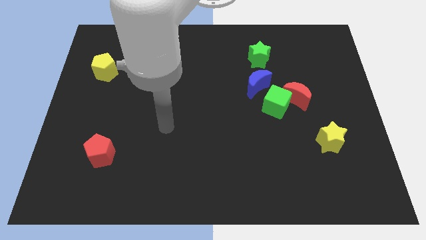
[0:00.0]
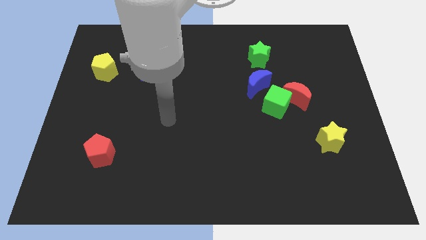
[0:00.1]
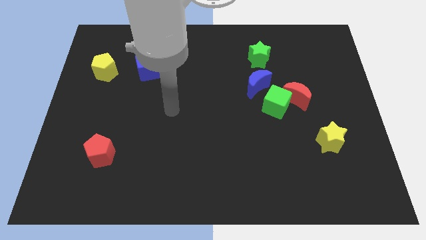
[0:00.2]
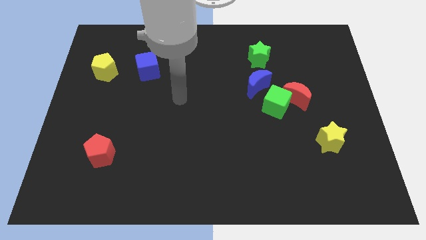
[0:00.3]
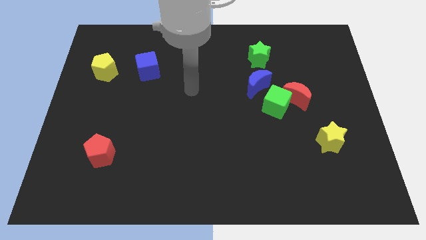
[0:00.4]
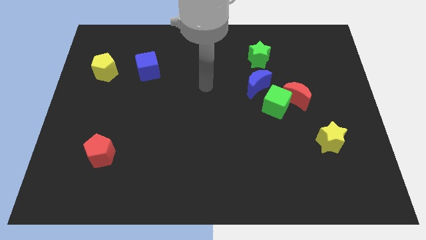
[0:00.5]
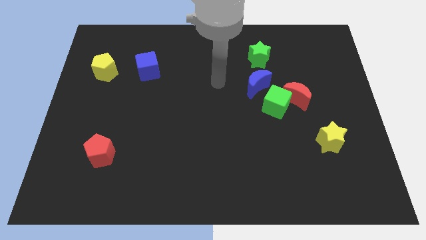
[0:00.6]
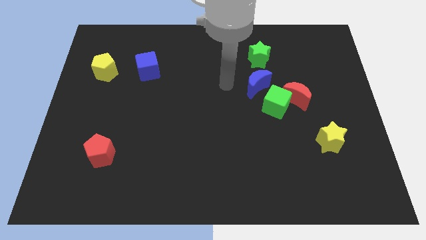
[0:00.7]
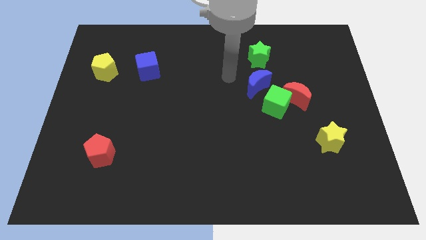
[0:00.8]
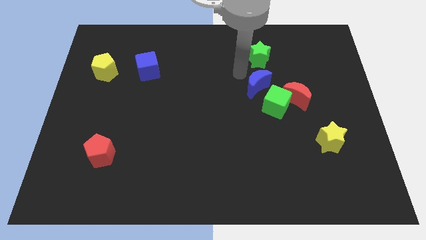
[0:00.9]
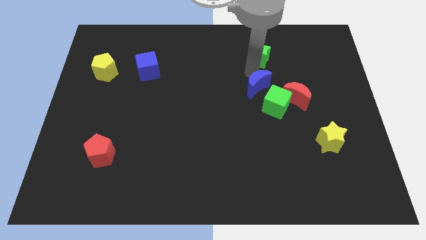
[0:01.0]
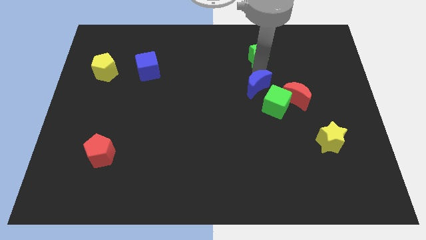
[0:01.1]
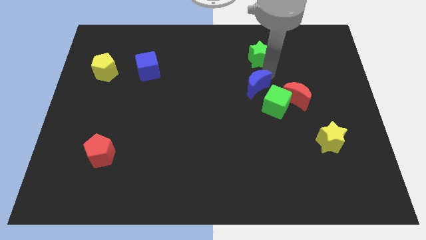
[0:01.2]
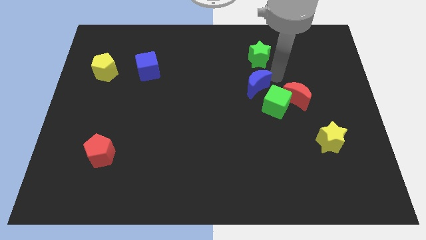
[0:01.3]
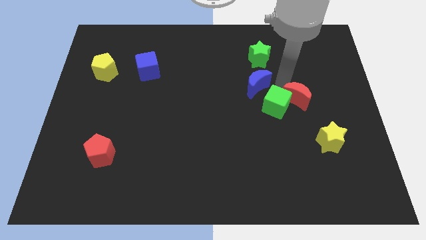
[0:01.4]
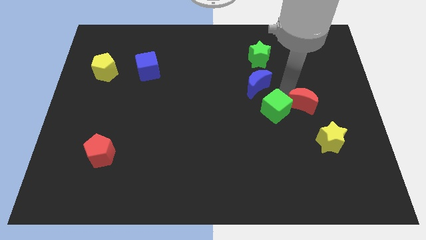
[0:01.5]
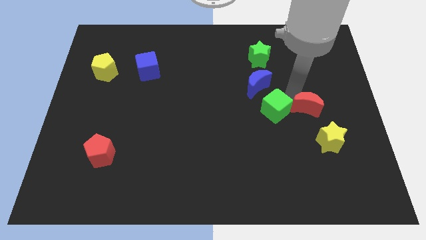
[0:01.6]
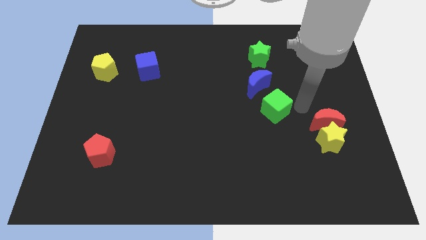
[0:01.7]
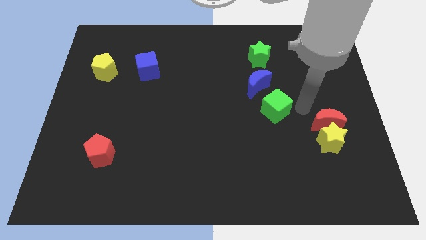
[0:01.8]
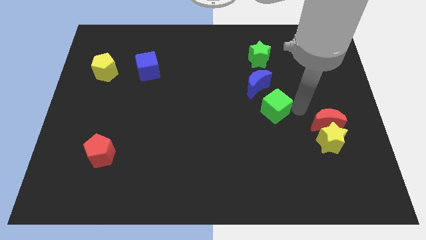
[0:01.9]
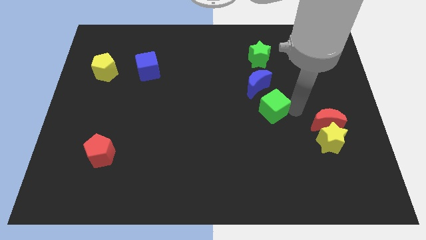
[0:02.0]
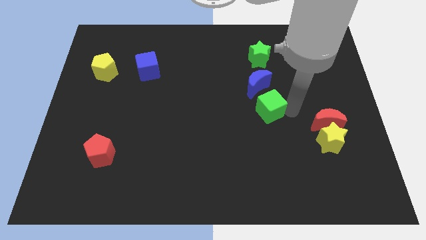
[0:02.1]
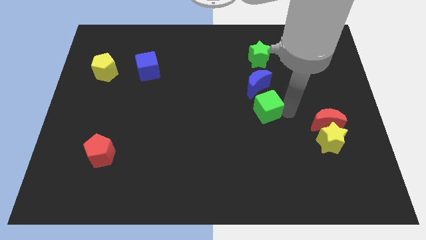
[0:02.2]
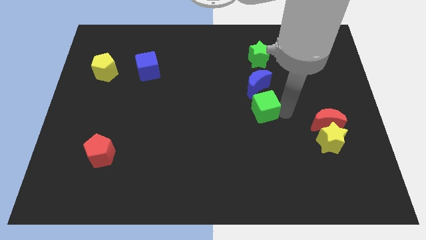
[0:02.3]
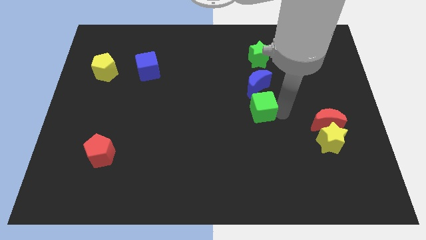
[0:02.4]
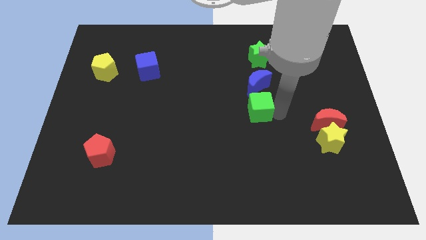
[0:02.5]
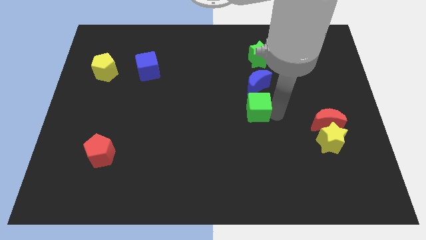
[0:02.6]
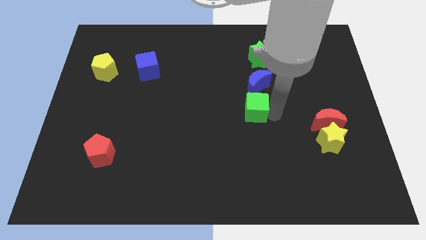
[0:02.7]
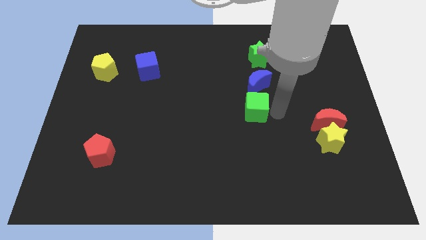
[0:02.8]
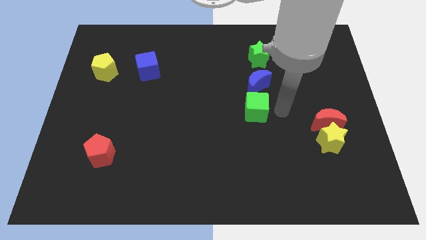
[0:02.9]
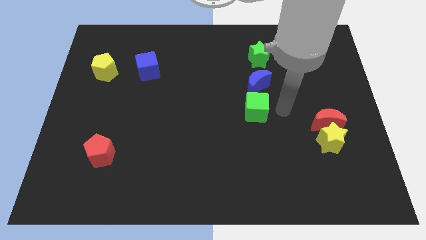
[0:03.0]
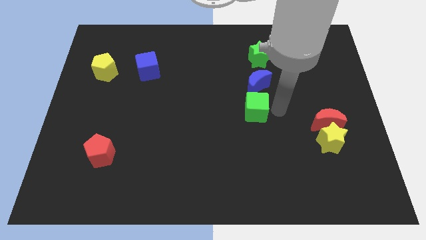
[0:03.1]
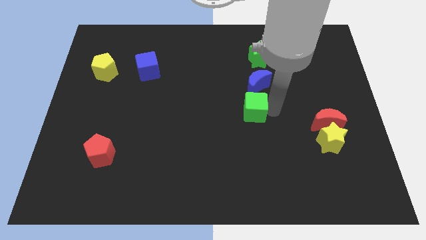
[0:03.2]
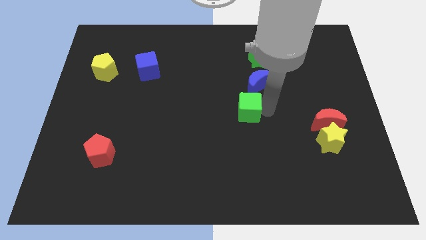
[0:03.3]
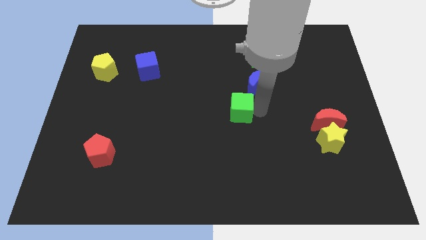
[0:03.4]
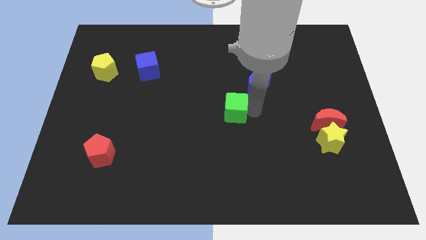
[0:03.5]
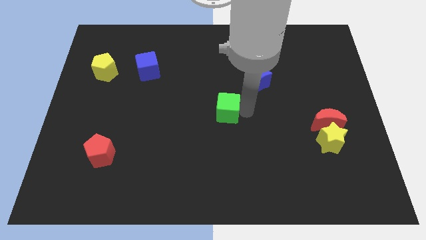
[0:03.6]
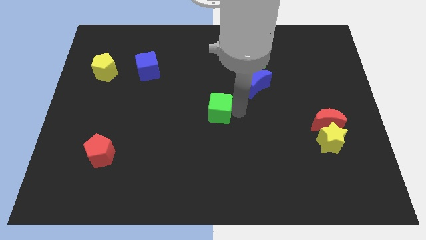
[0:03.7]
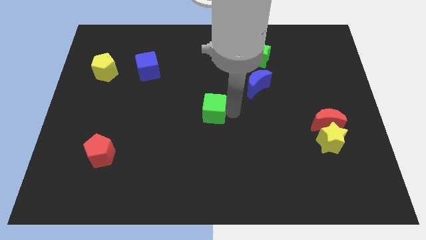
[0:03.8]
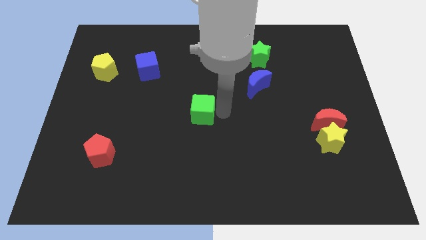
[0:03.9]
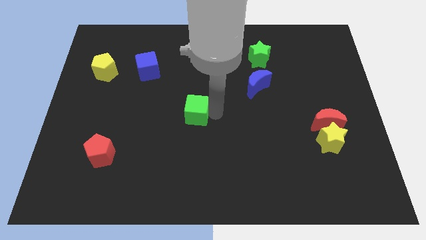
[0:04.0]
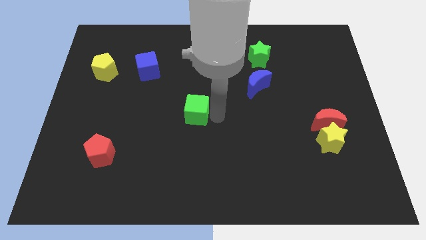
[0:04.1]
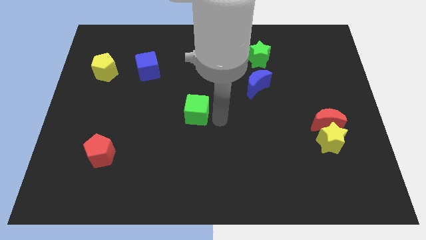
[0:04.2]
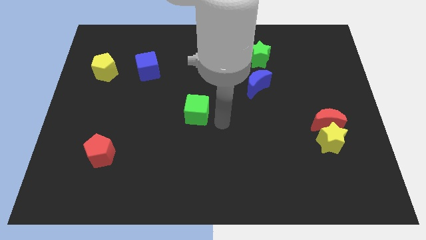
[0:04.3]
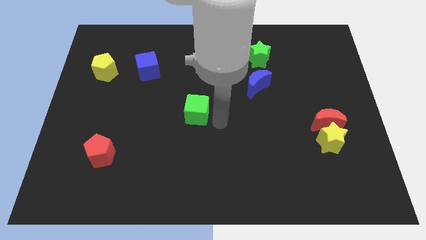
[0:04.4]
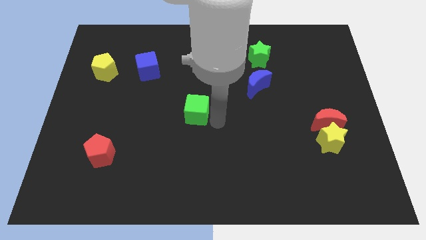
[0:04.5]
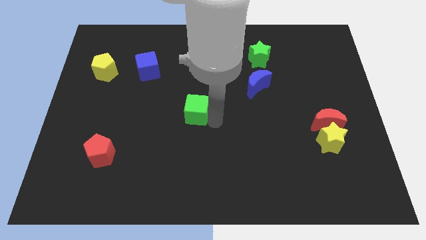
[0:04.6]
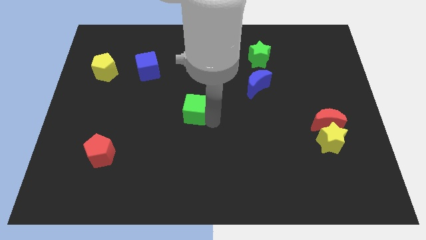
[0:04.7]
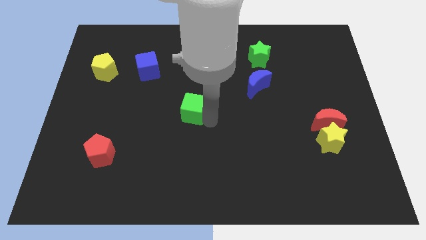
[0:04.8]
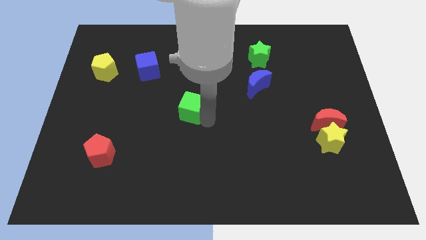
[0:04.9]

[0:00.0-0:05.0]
push the green cube to the left

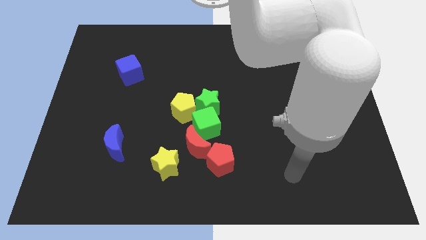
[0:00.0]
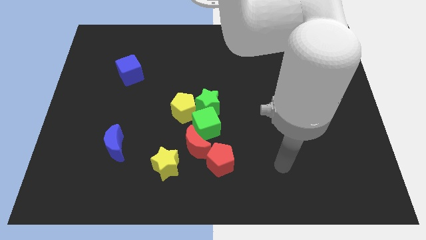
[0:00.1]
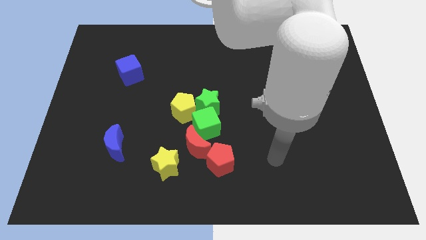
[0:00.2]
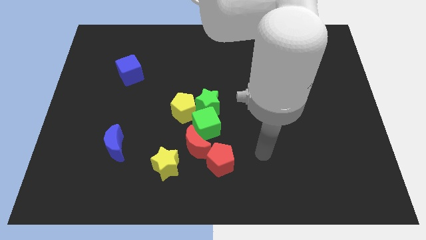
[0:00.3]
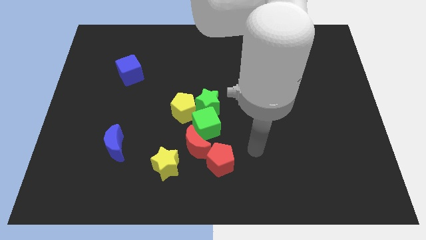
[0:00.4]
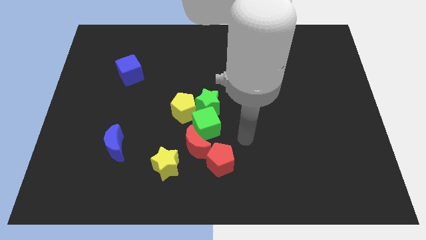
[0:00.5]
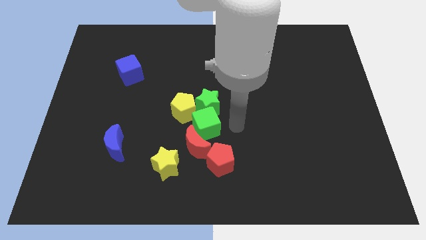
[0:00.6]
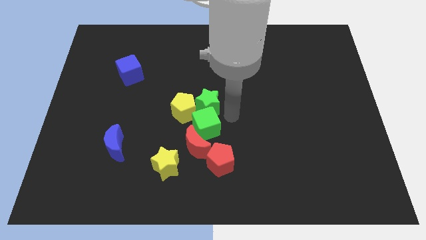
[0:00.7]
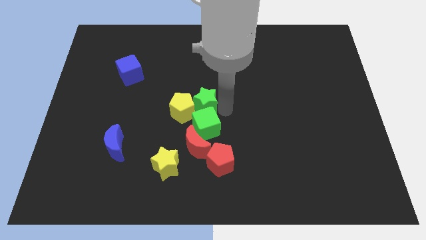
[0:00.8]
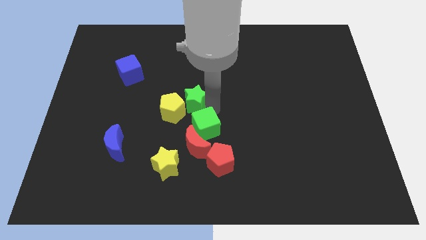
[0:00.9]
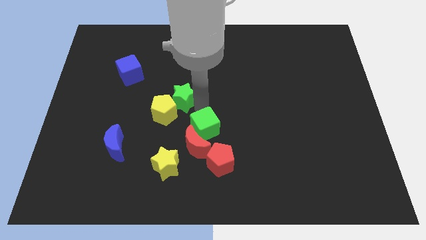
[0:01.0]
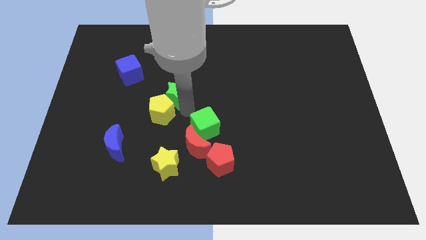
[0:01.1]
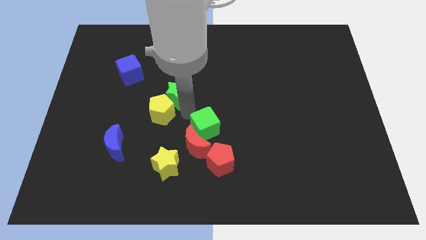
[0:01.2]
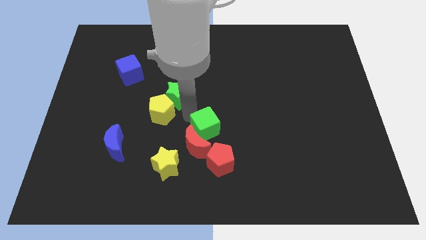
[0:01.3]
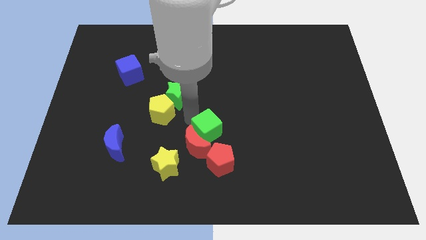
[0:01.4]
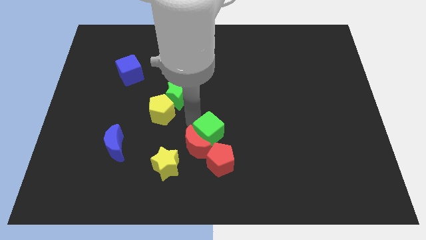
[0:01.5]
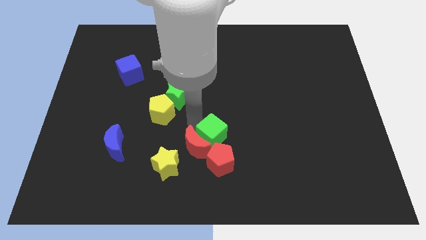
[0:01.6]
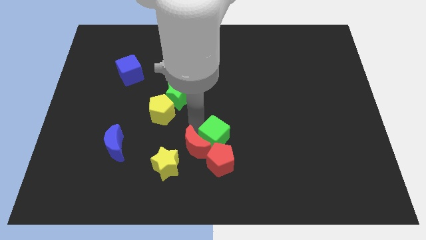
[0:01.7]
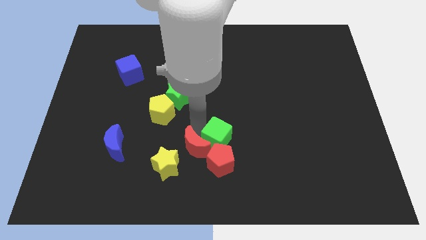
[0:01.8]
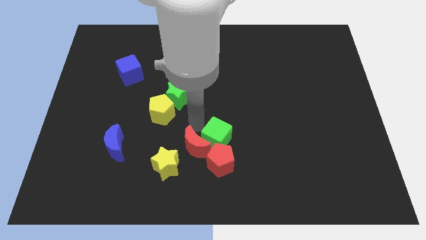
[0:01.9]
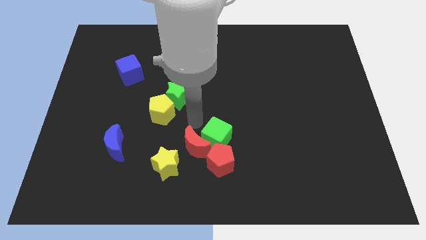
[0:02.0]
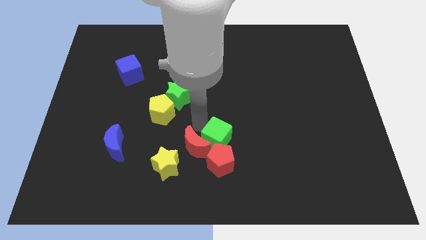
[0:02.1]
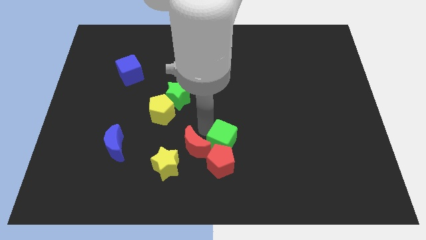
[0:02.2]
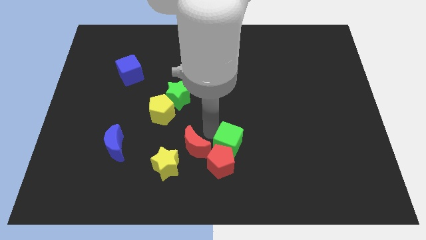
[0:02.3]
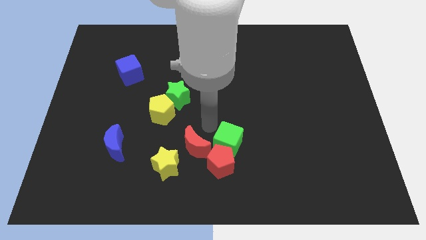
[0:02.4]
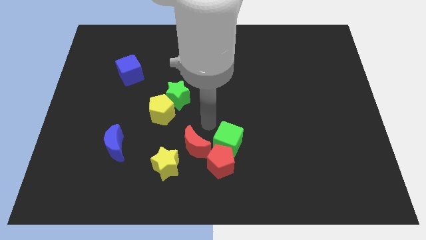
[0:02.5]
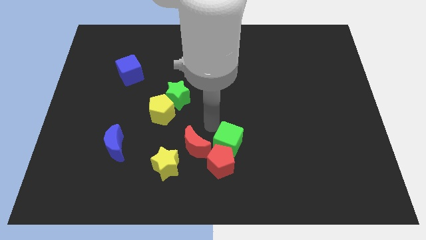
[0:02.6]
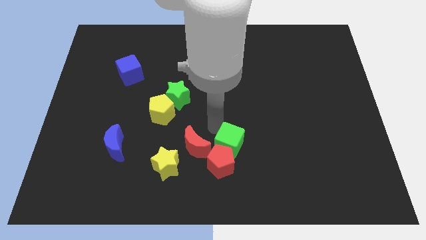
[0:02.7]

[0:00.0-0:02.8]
move the green cube downwards and right diagonally slightly

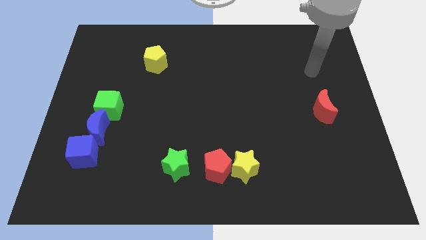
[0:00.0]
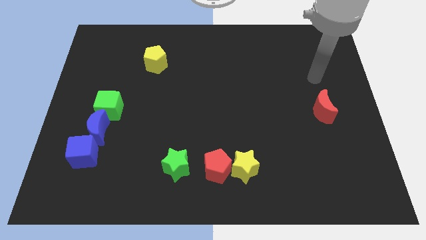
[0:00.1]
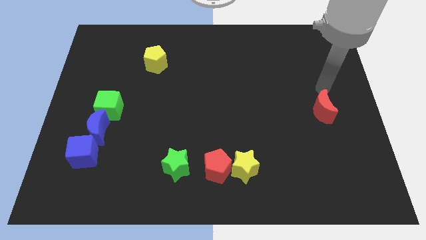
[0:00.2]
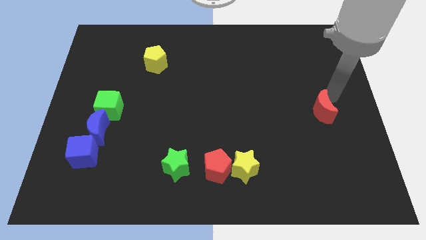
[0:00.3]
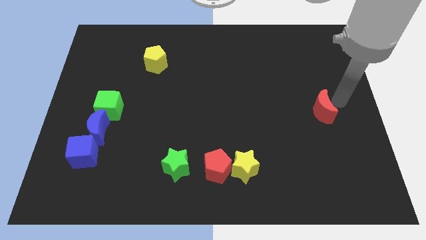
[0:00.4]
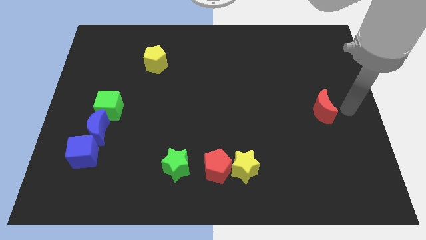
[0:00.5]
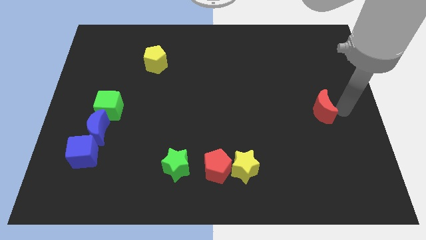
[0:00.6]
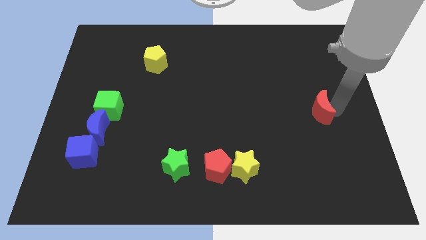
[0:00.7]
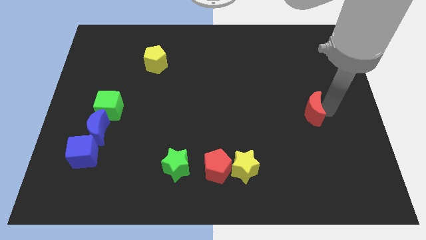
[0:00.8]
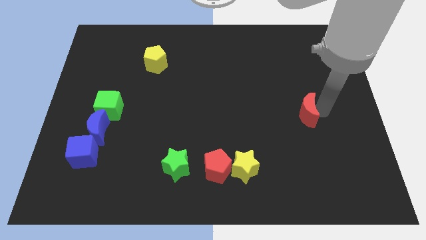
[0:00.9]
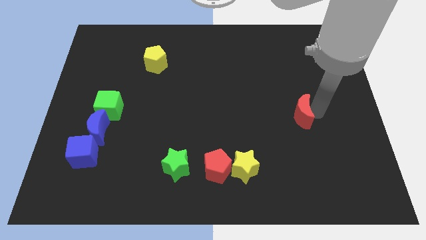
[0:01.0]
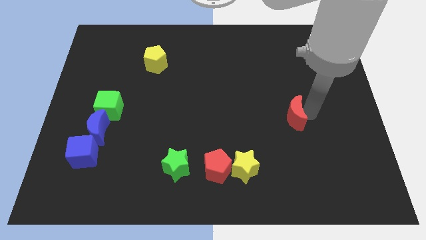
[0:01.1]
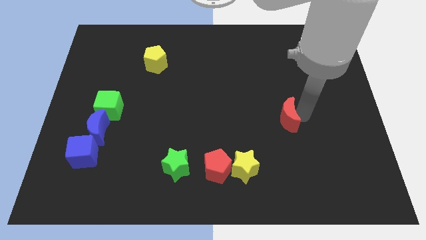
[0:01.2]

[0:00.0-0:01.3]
move the red moon a little bit left
